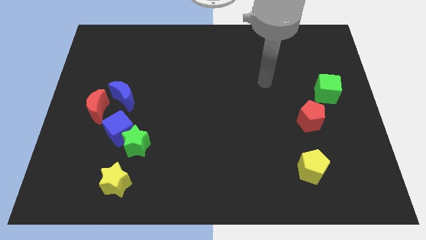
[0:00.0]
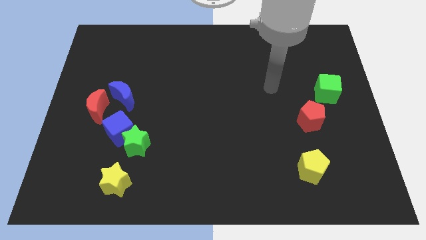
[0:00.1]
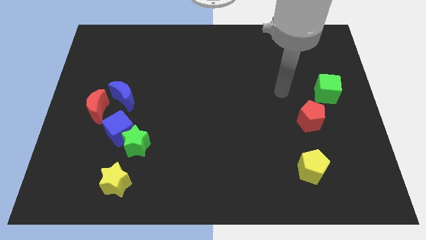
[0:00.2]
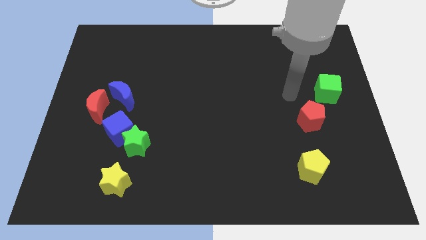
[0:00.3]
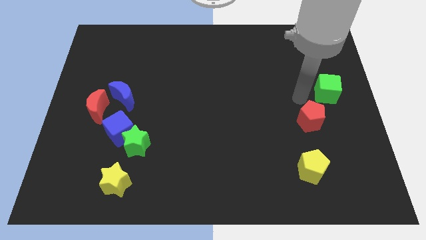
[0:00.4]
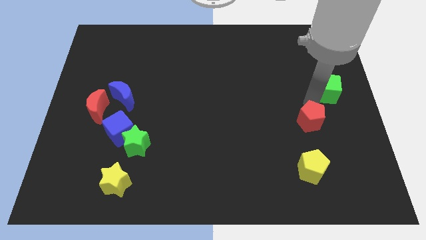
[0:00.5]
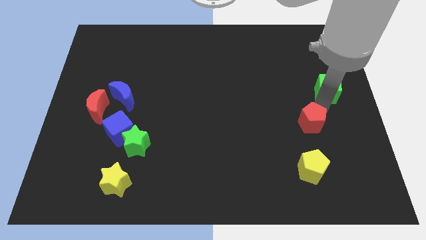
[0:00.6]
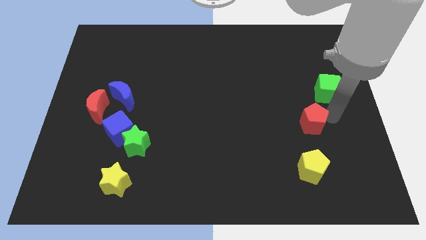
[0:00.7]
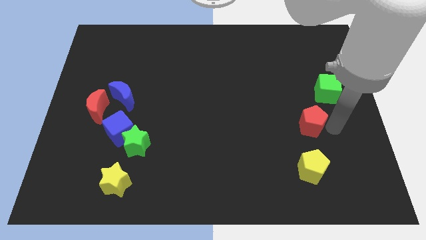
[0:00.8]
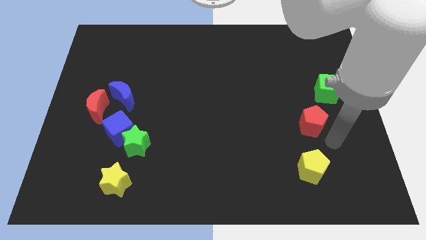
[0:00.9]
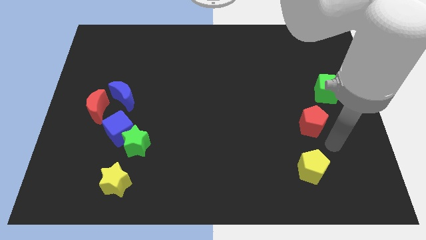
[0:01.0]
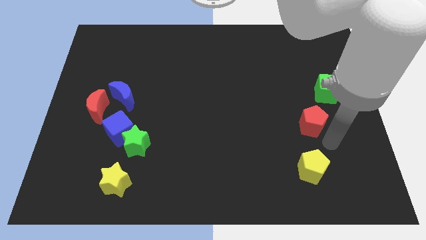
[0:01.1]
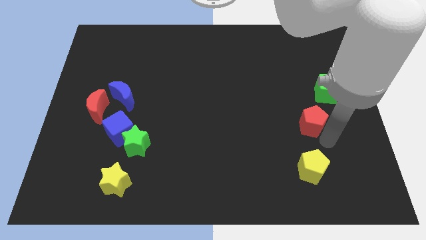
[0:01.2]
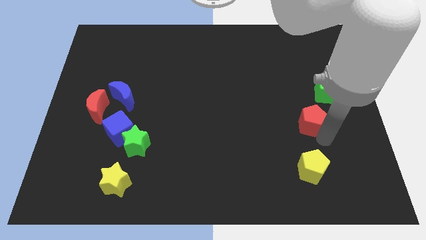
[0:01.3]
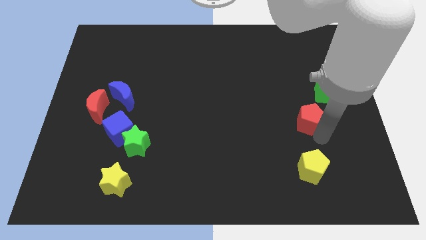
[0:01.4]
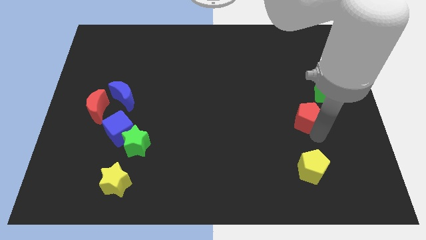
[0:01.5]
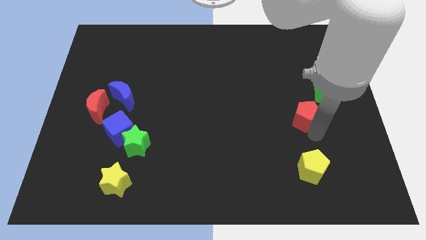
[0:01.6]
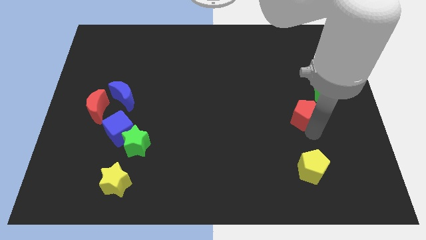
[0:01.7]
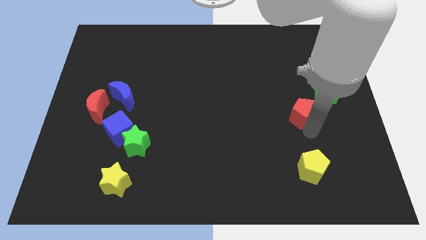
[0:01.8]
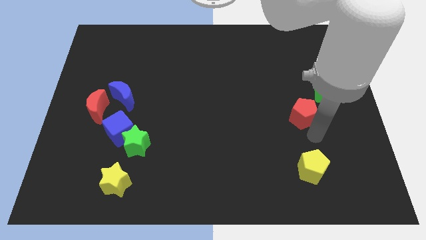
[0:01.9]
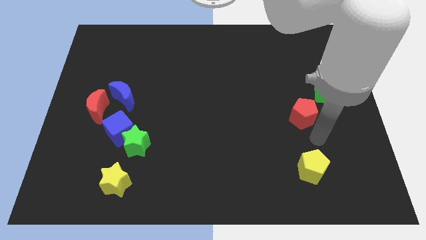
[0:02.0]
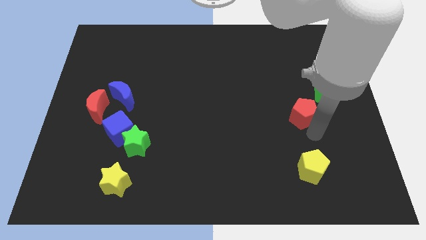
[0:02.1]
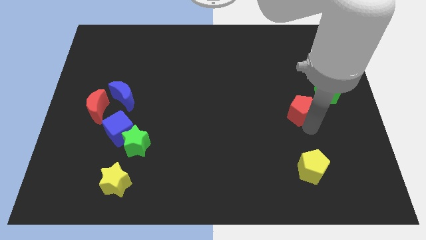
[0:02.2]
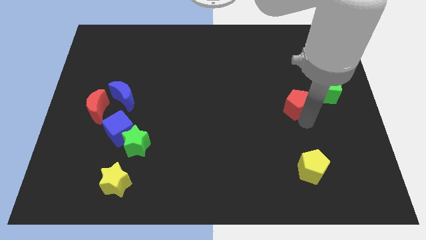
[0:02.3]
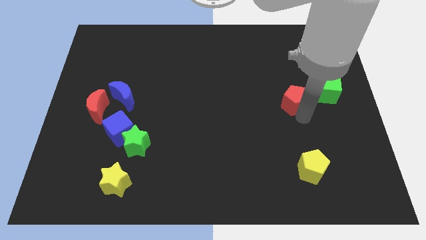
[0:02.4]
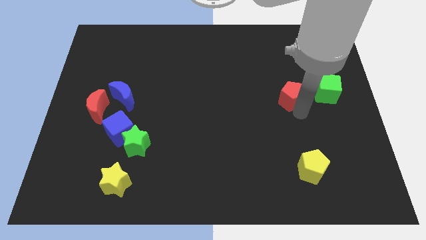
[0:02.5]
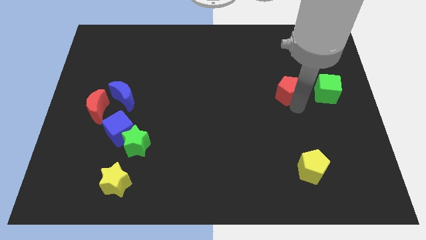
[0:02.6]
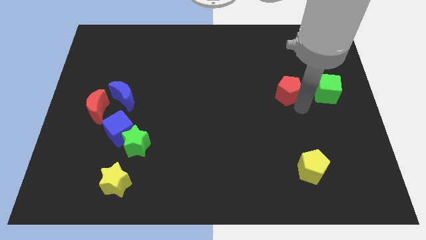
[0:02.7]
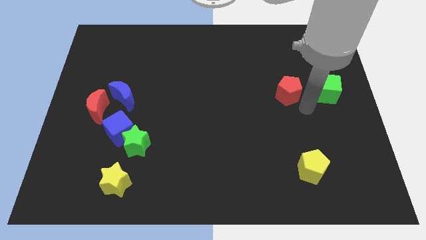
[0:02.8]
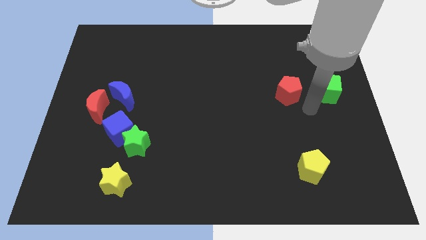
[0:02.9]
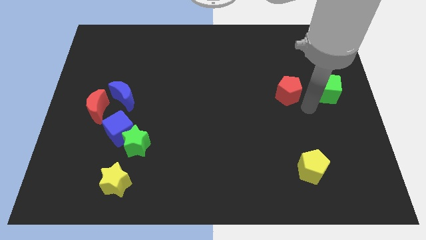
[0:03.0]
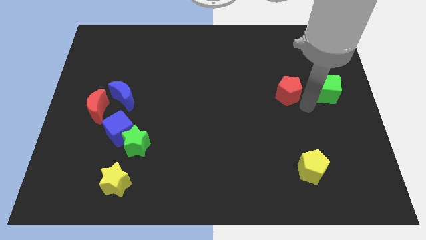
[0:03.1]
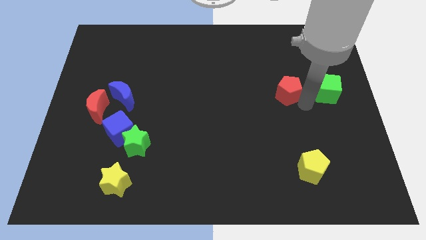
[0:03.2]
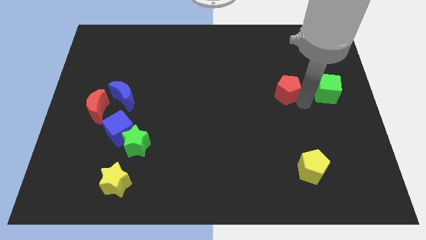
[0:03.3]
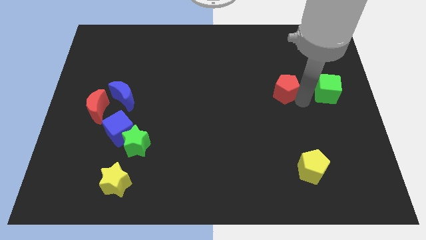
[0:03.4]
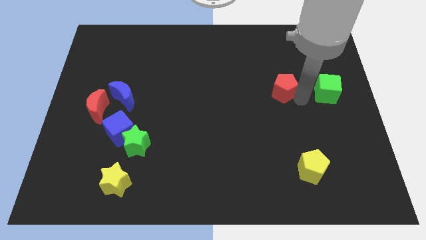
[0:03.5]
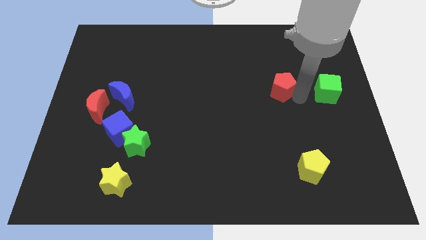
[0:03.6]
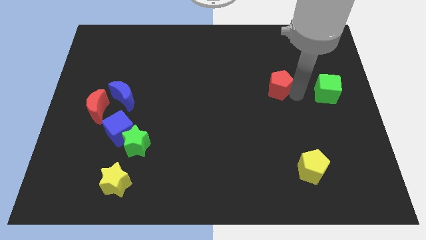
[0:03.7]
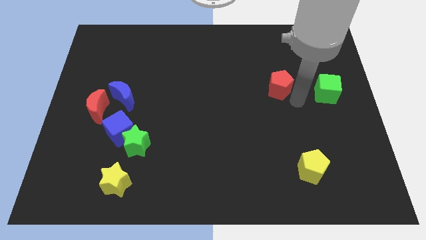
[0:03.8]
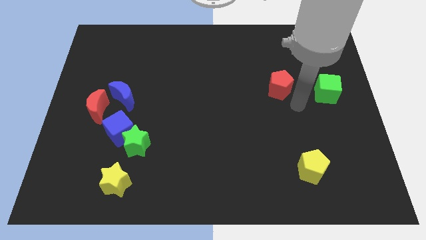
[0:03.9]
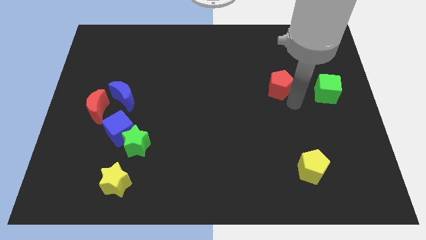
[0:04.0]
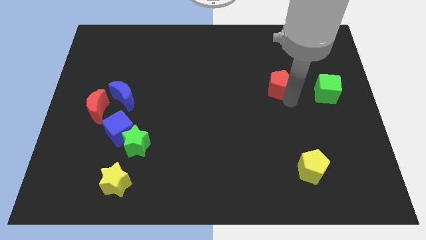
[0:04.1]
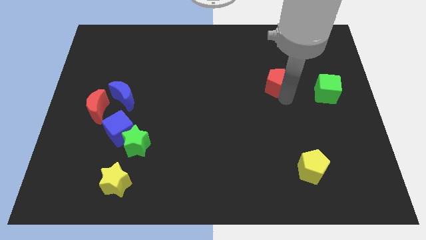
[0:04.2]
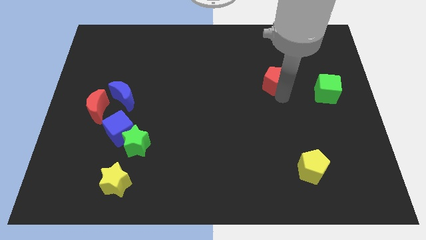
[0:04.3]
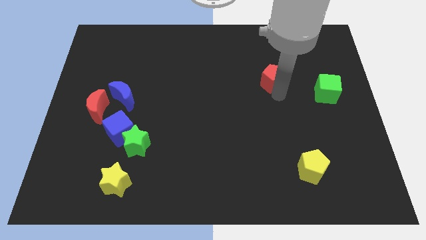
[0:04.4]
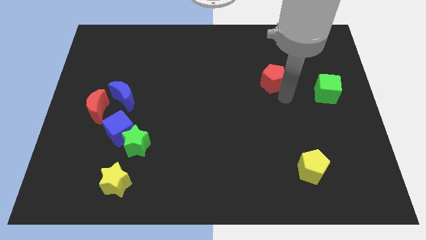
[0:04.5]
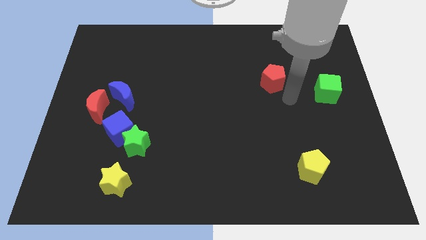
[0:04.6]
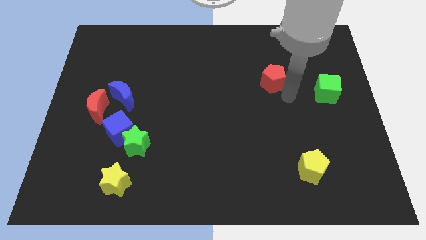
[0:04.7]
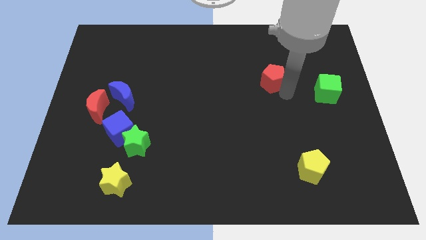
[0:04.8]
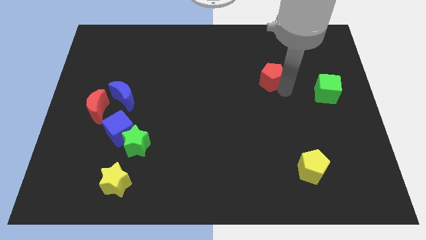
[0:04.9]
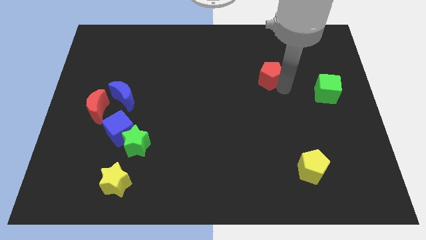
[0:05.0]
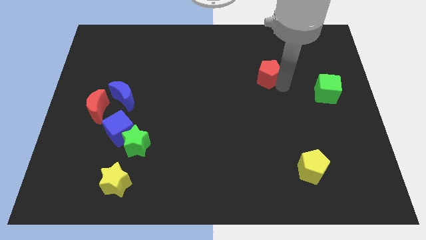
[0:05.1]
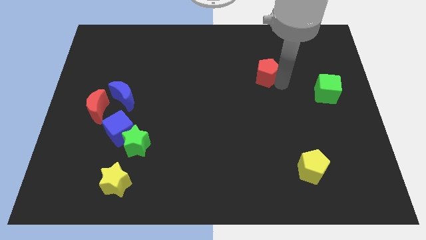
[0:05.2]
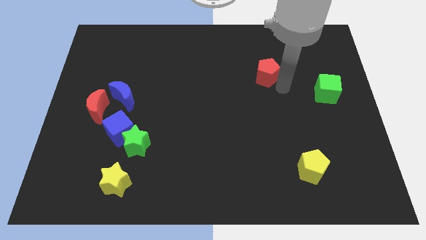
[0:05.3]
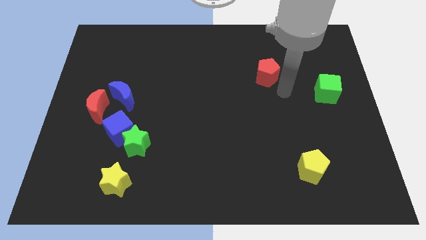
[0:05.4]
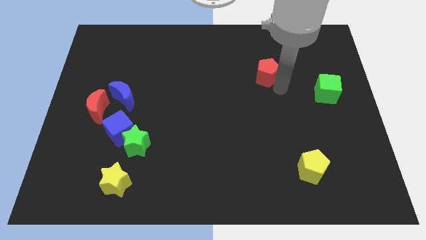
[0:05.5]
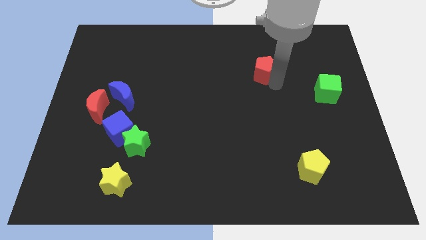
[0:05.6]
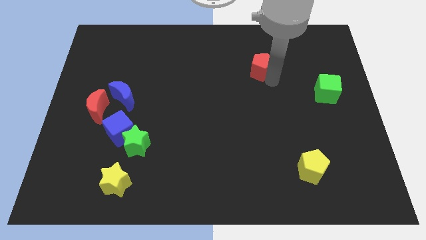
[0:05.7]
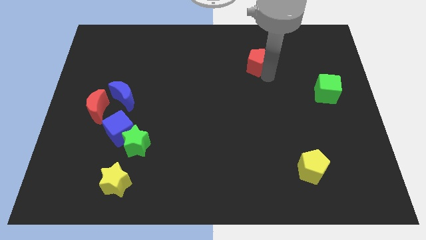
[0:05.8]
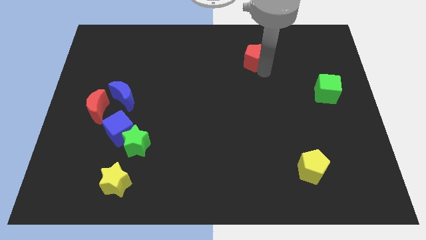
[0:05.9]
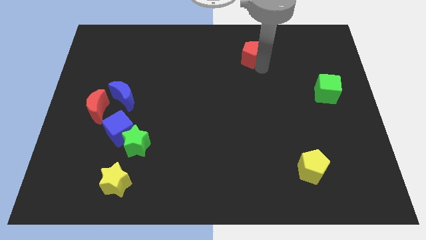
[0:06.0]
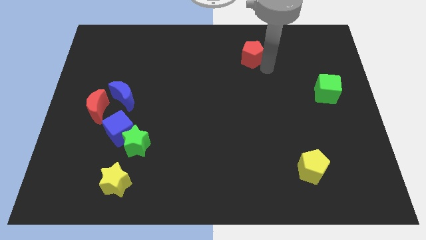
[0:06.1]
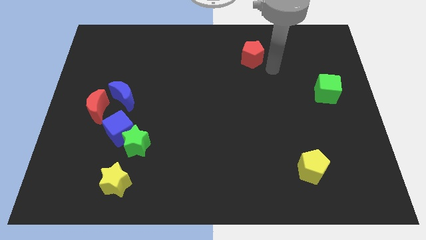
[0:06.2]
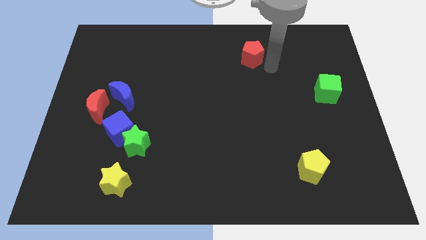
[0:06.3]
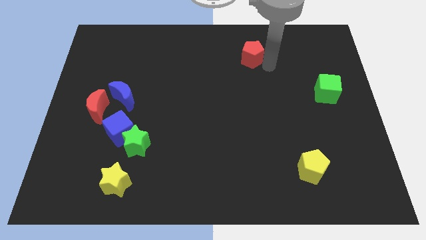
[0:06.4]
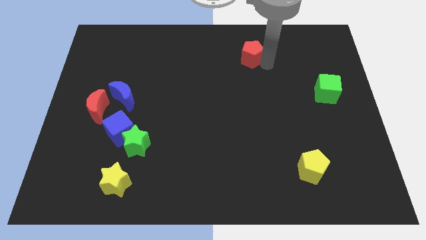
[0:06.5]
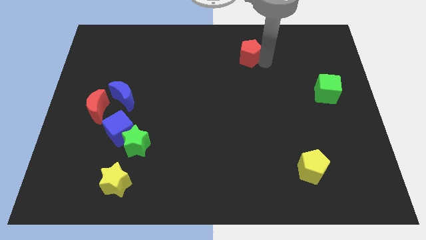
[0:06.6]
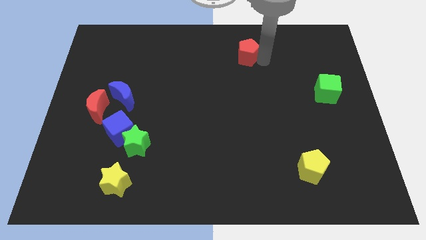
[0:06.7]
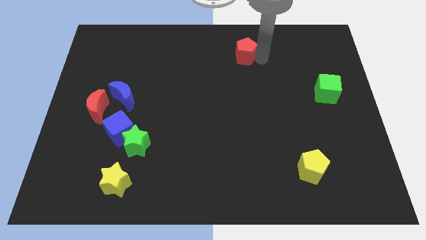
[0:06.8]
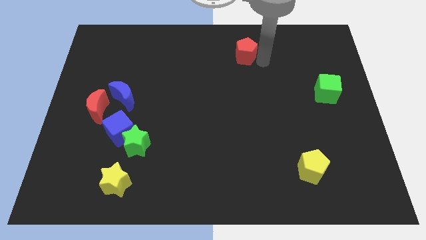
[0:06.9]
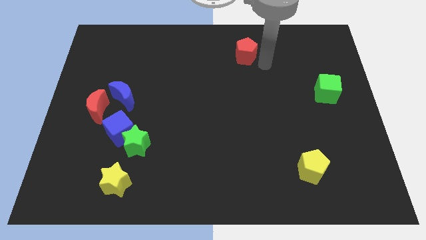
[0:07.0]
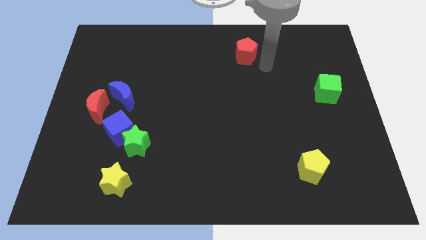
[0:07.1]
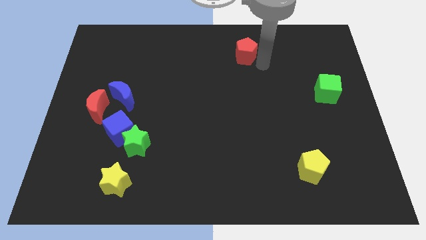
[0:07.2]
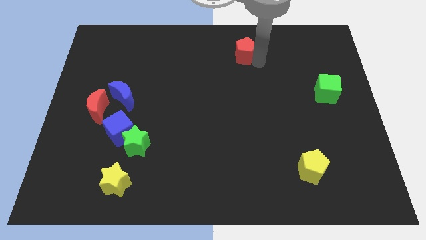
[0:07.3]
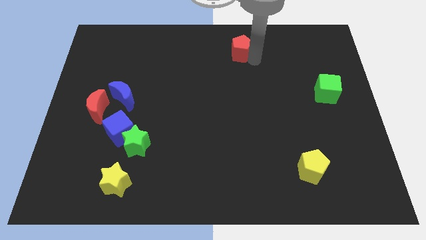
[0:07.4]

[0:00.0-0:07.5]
push the red pentagon to the towards your base
